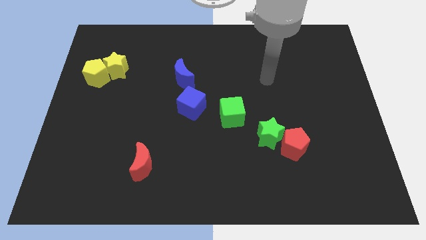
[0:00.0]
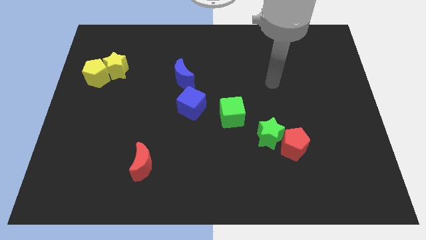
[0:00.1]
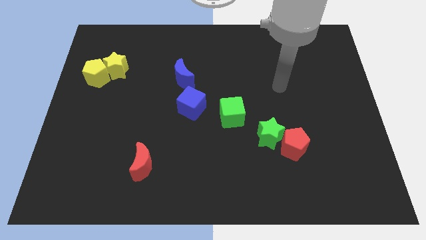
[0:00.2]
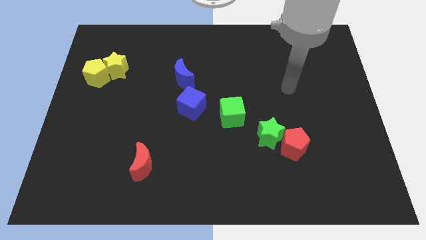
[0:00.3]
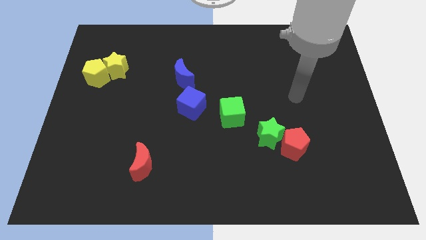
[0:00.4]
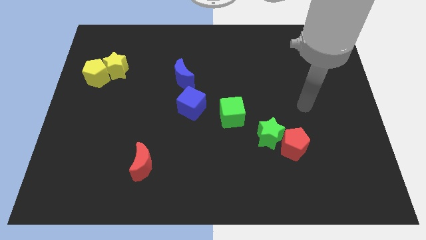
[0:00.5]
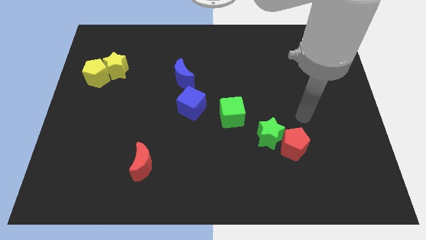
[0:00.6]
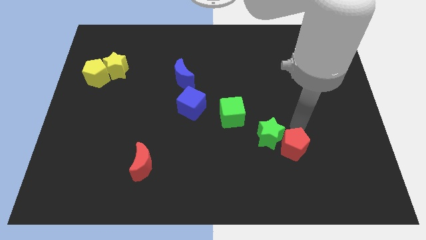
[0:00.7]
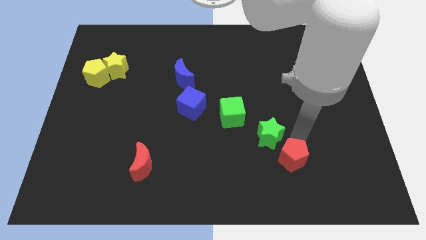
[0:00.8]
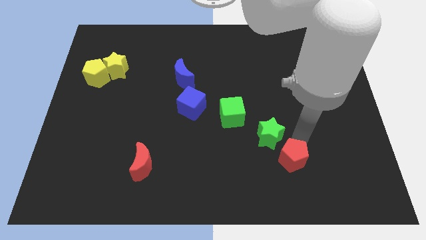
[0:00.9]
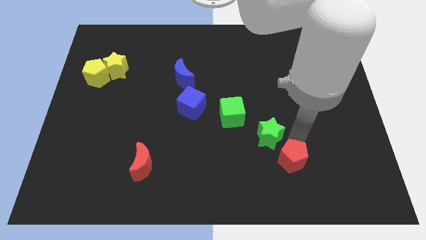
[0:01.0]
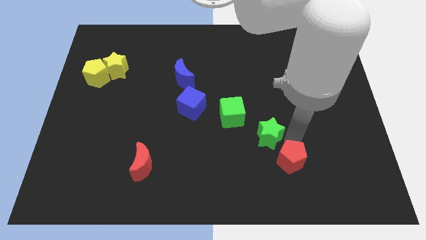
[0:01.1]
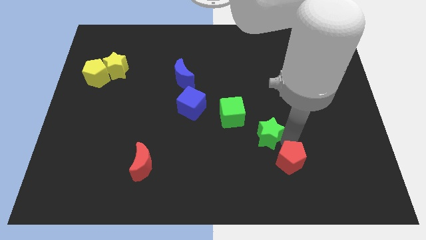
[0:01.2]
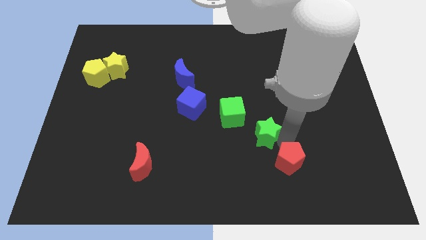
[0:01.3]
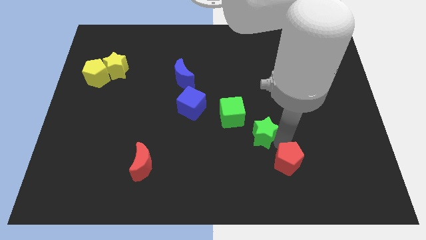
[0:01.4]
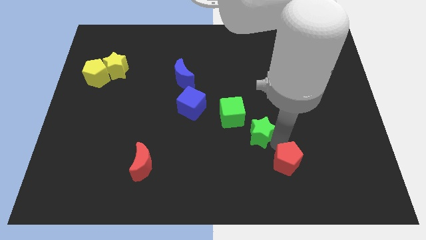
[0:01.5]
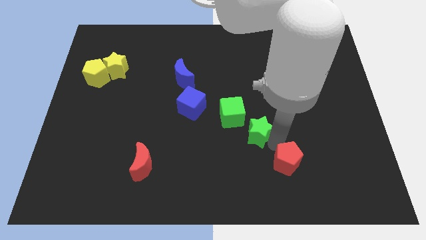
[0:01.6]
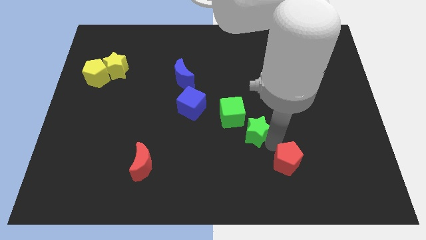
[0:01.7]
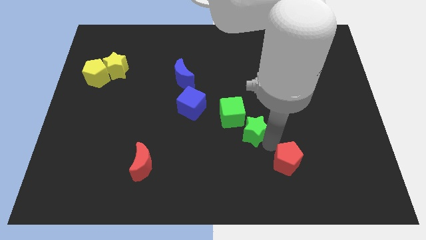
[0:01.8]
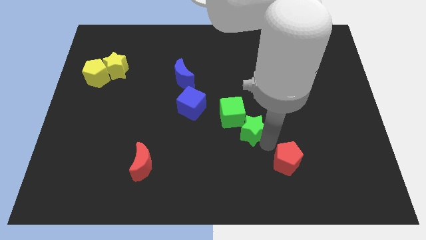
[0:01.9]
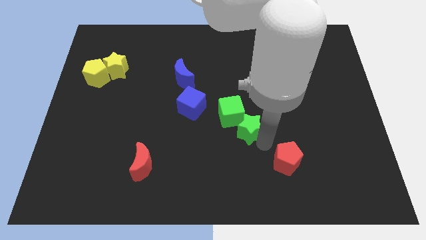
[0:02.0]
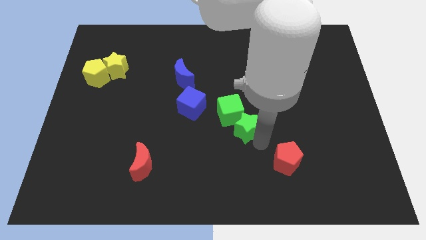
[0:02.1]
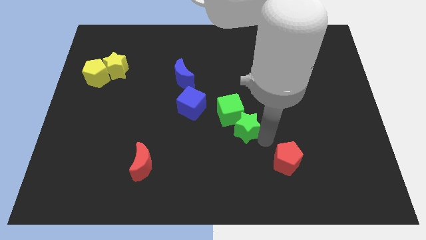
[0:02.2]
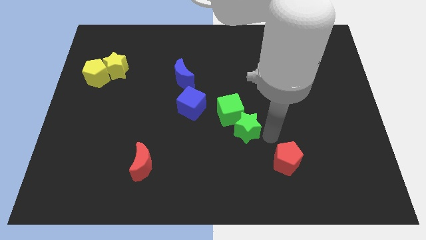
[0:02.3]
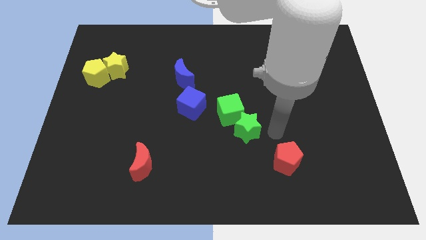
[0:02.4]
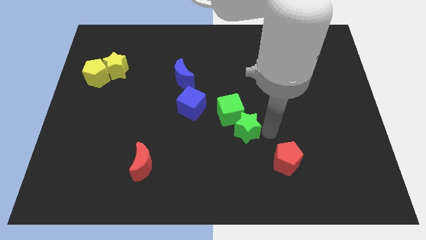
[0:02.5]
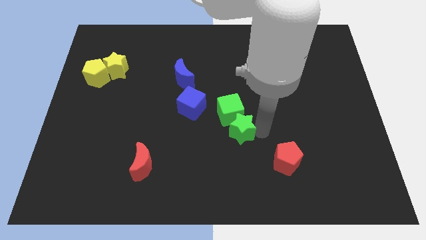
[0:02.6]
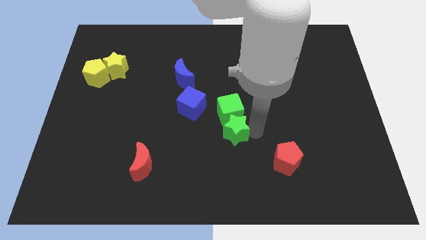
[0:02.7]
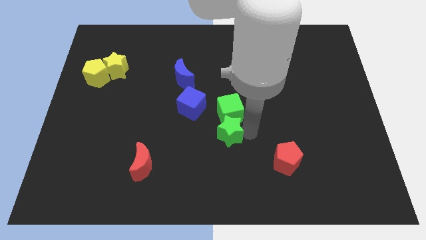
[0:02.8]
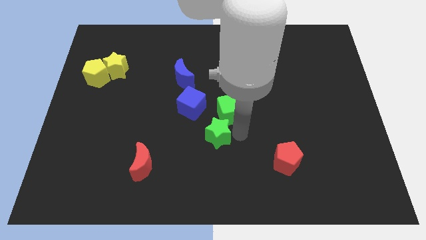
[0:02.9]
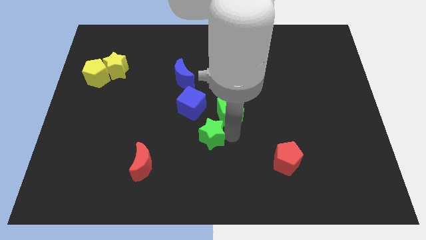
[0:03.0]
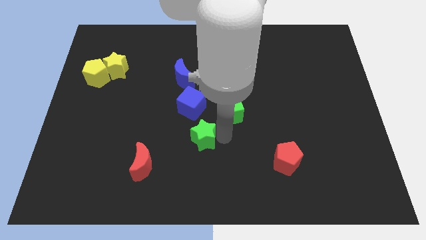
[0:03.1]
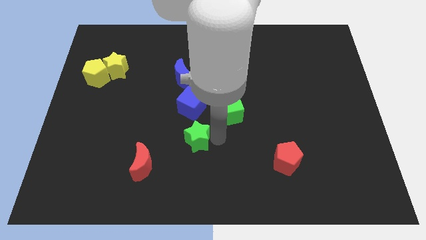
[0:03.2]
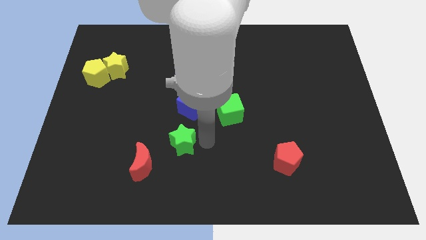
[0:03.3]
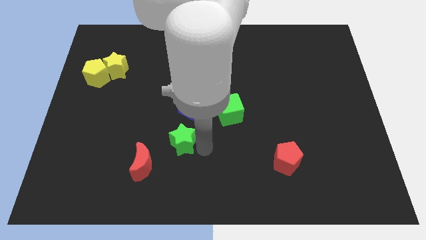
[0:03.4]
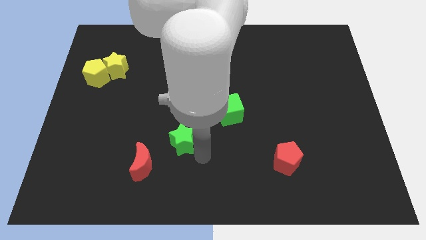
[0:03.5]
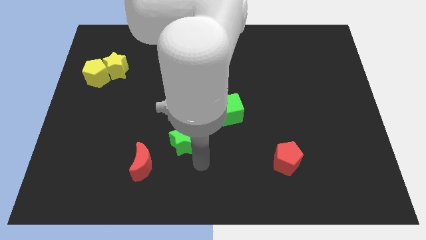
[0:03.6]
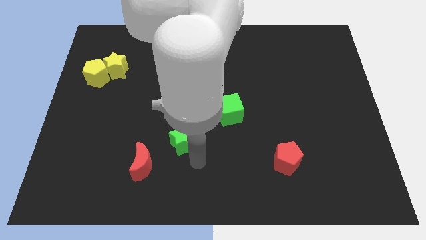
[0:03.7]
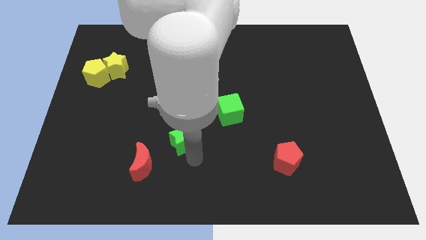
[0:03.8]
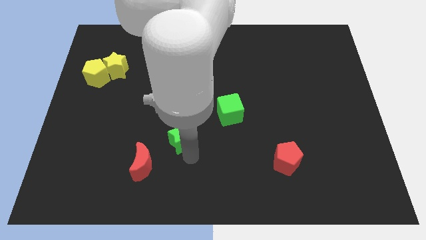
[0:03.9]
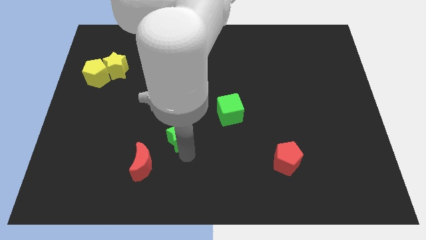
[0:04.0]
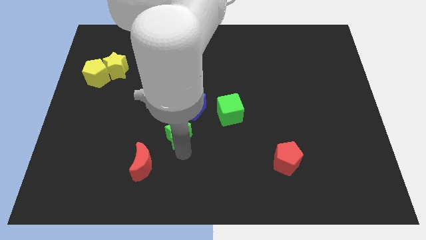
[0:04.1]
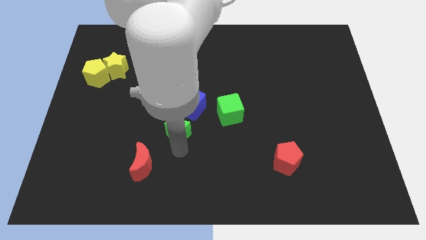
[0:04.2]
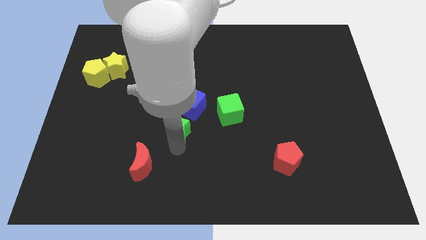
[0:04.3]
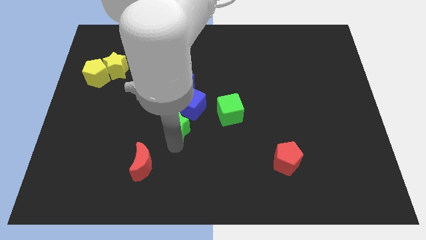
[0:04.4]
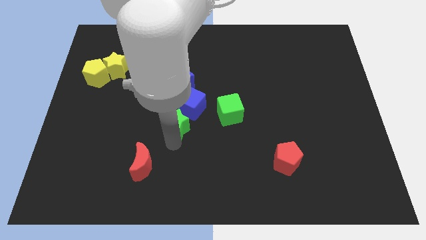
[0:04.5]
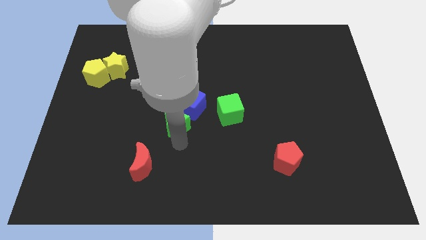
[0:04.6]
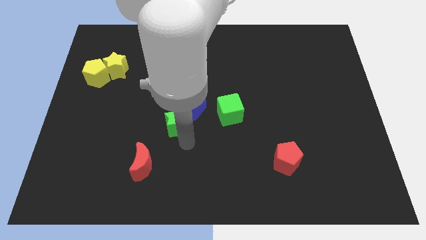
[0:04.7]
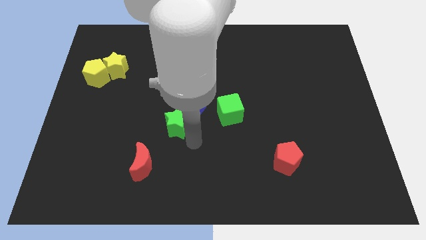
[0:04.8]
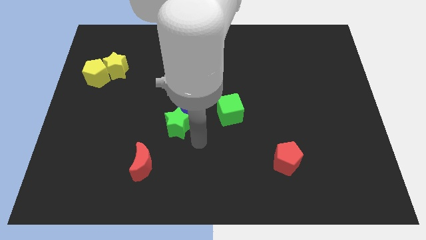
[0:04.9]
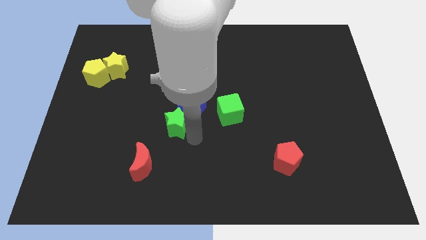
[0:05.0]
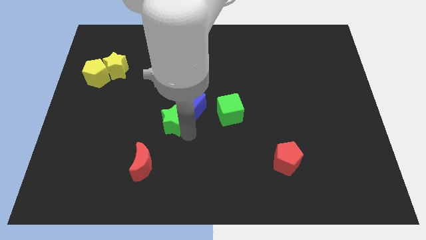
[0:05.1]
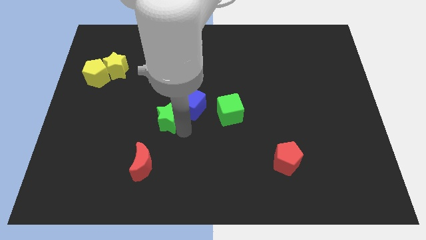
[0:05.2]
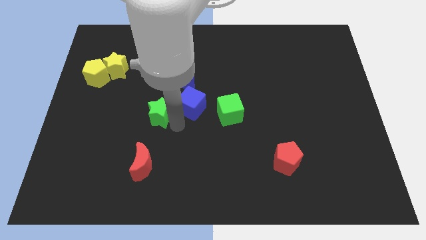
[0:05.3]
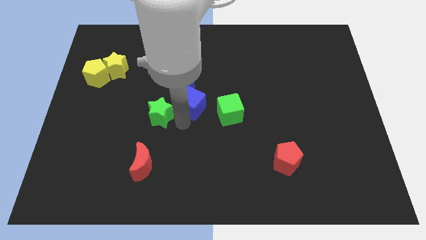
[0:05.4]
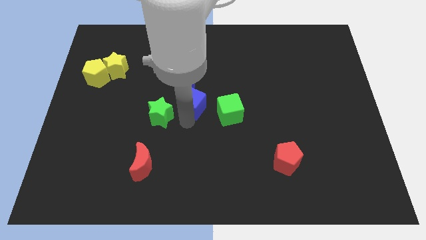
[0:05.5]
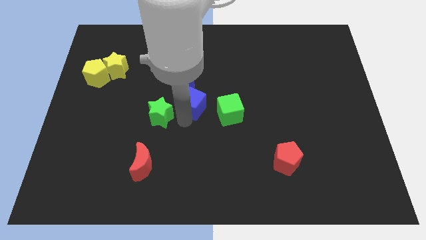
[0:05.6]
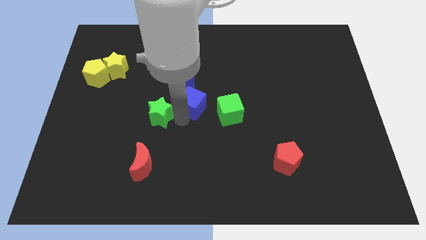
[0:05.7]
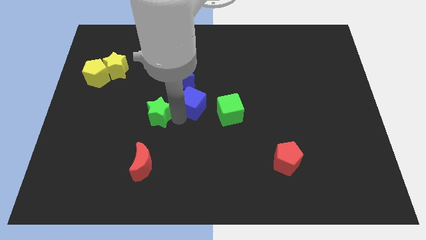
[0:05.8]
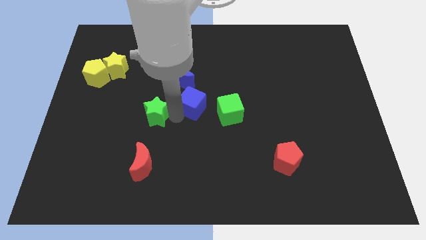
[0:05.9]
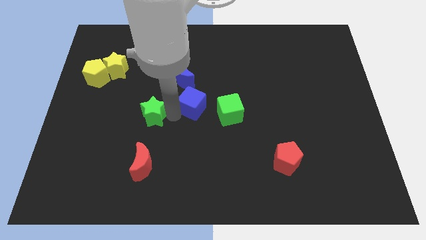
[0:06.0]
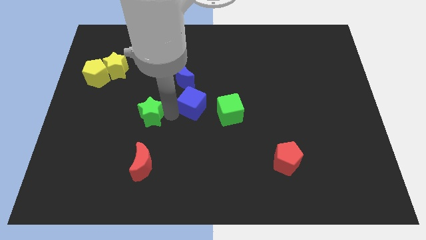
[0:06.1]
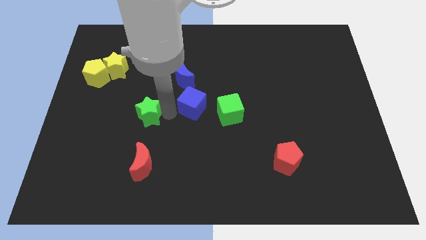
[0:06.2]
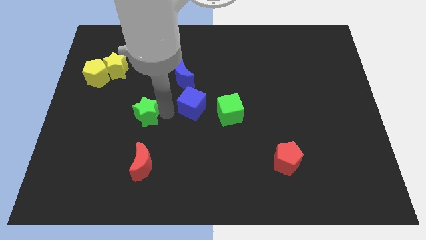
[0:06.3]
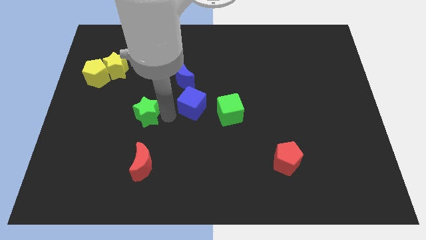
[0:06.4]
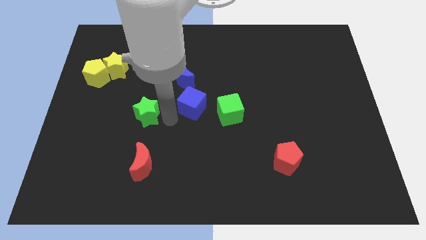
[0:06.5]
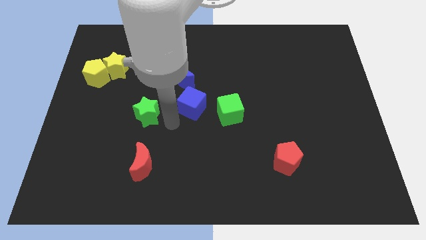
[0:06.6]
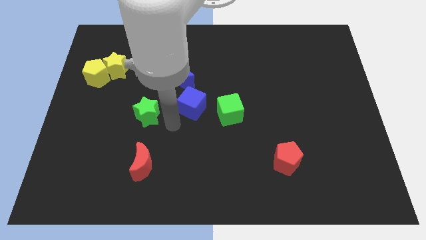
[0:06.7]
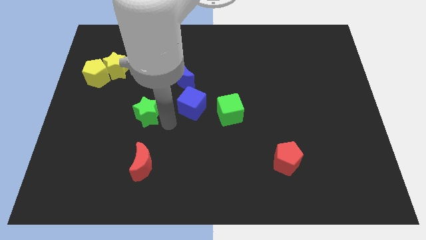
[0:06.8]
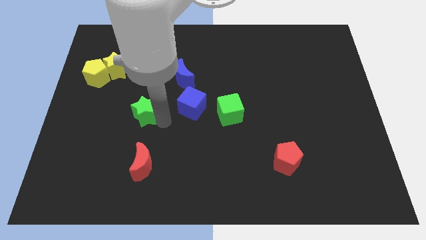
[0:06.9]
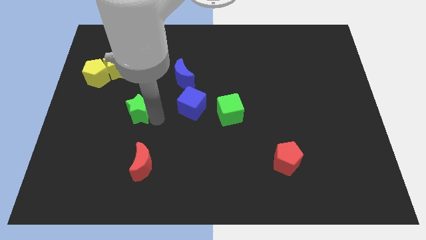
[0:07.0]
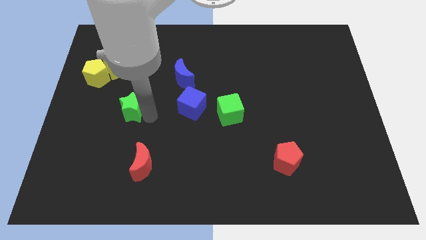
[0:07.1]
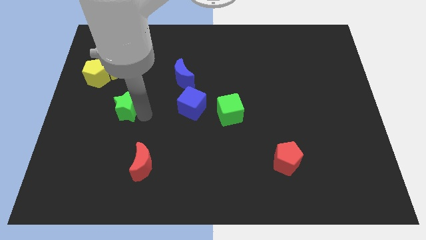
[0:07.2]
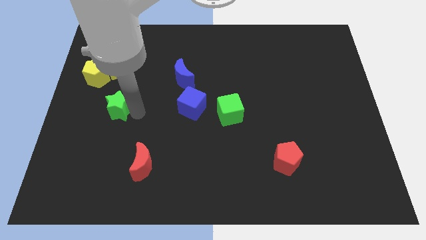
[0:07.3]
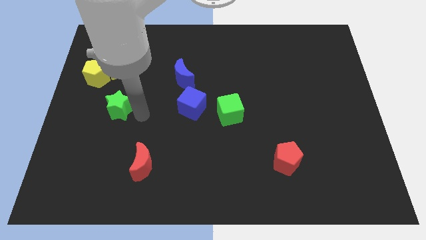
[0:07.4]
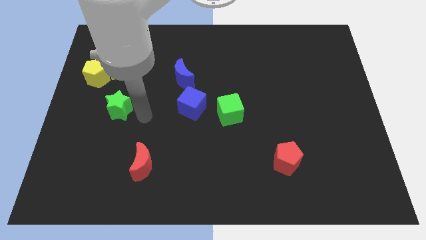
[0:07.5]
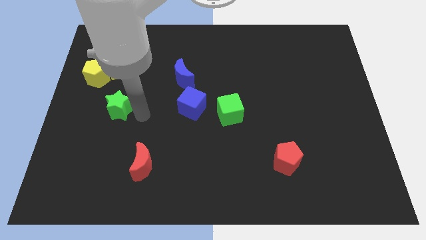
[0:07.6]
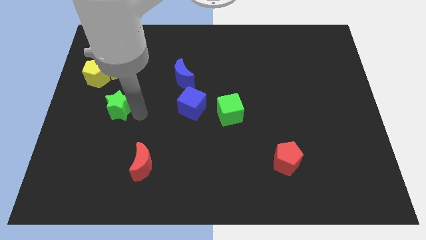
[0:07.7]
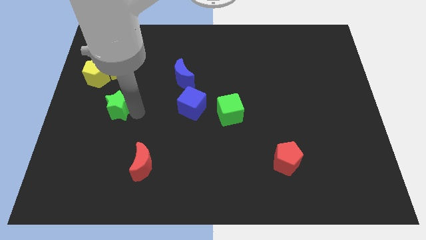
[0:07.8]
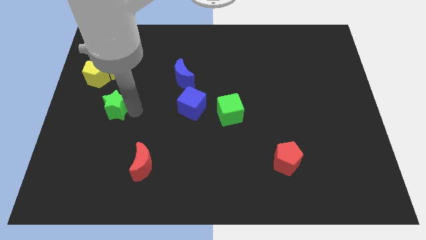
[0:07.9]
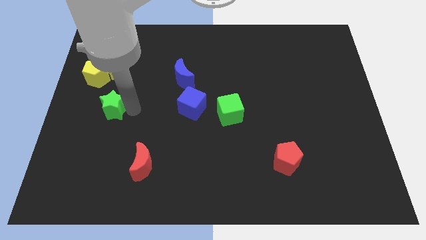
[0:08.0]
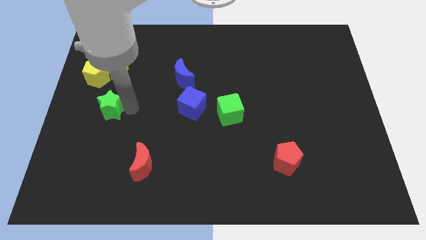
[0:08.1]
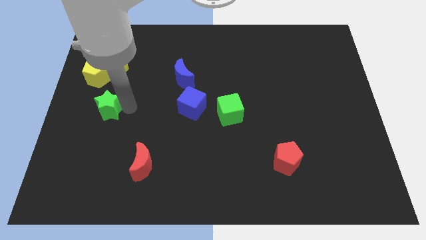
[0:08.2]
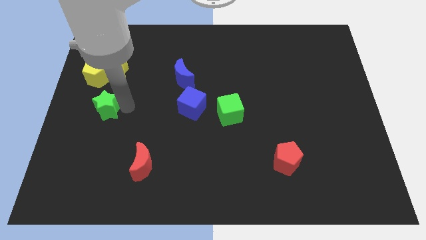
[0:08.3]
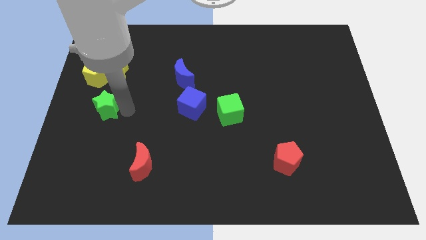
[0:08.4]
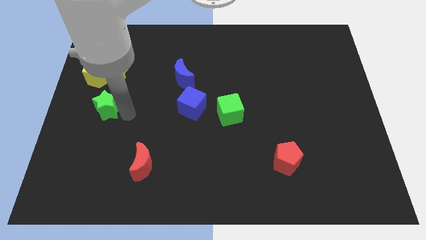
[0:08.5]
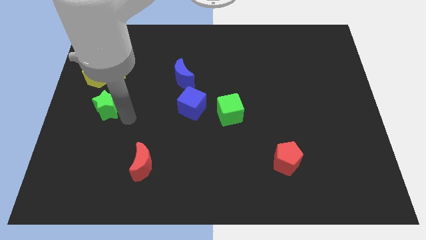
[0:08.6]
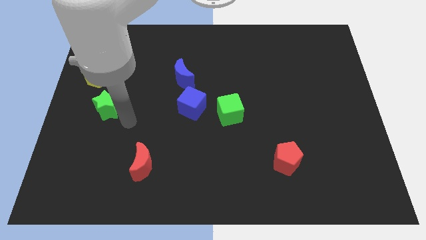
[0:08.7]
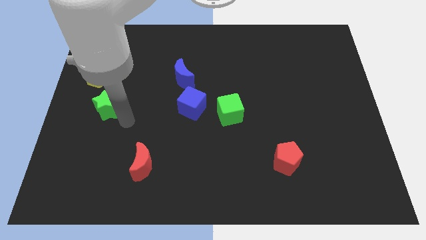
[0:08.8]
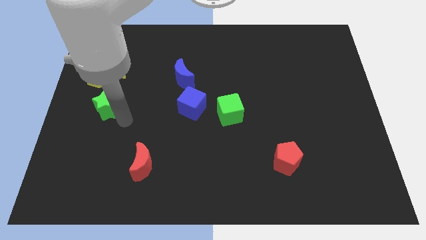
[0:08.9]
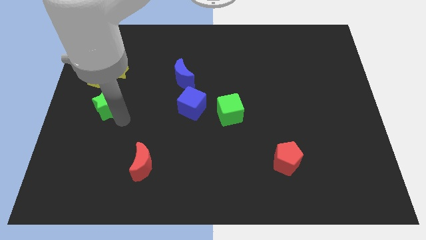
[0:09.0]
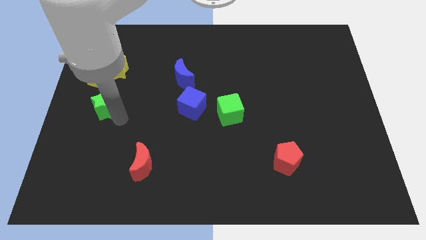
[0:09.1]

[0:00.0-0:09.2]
move the green star to the left side of the board
